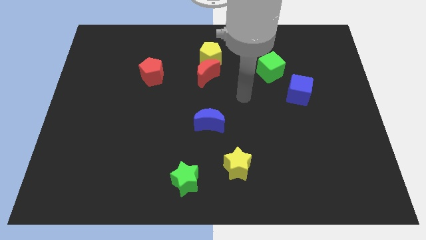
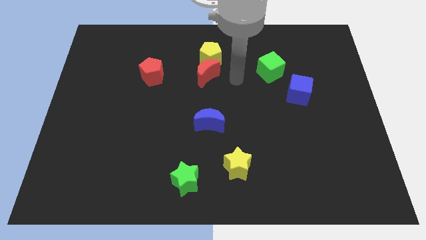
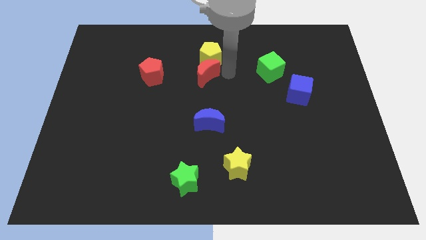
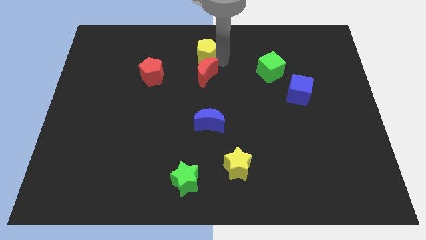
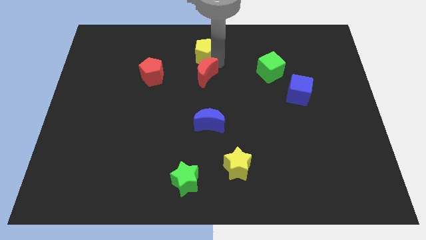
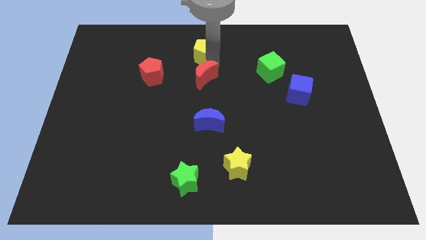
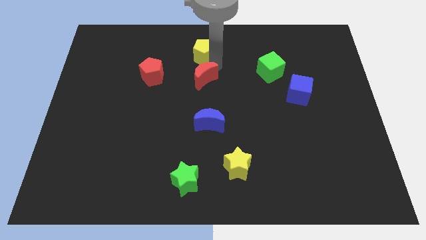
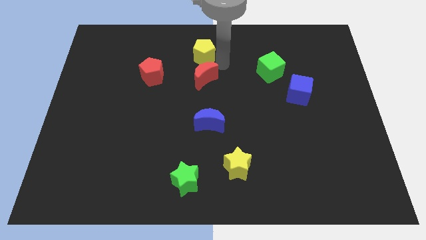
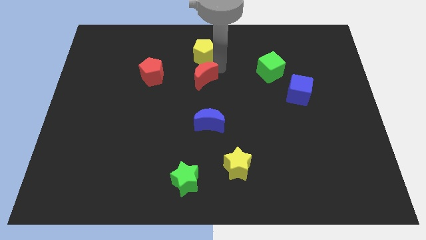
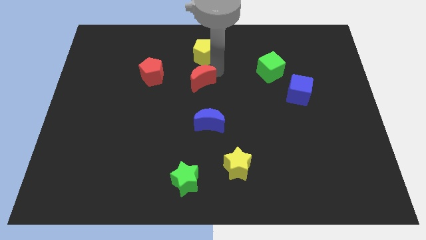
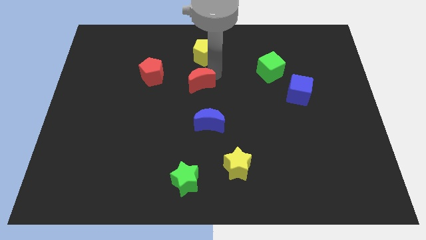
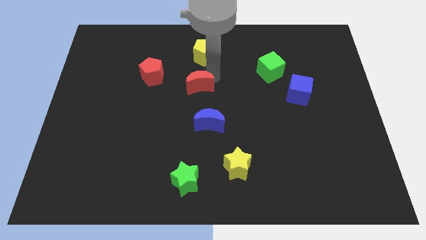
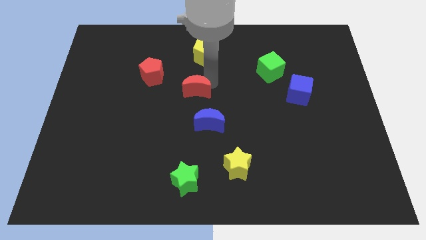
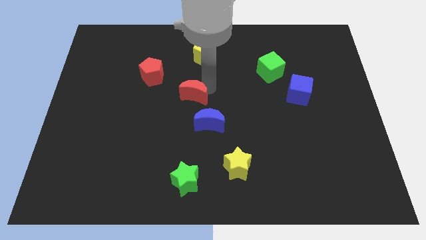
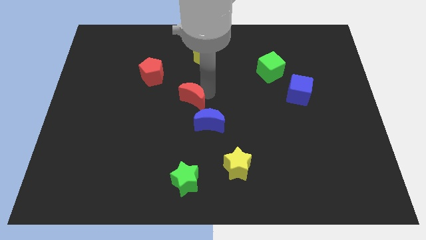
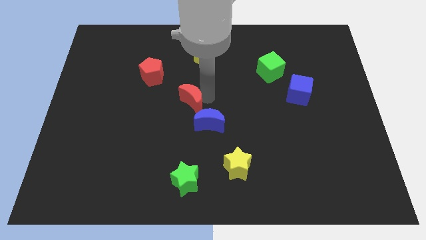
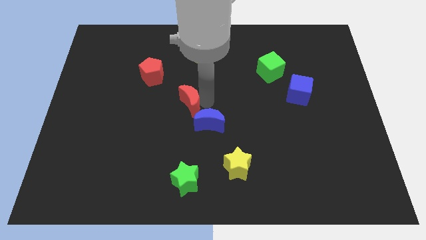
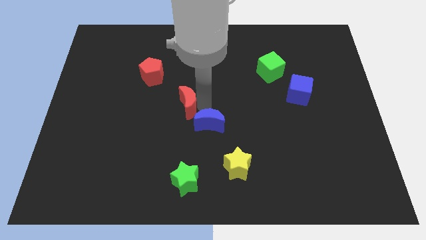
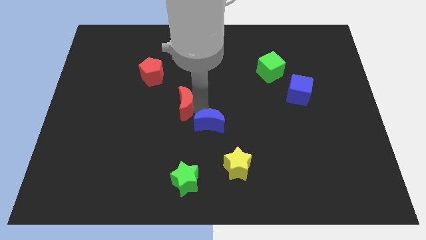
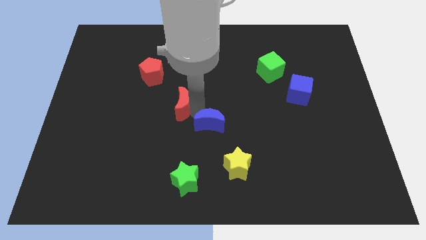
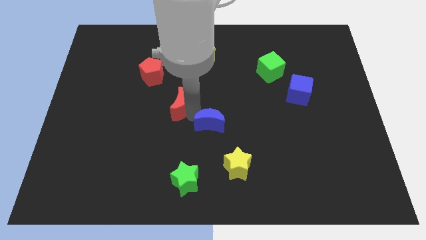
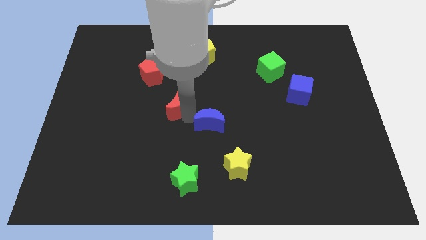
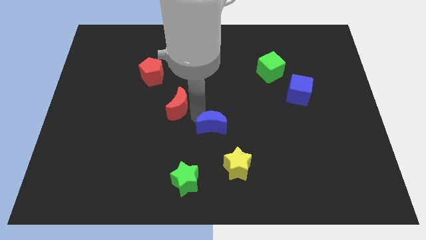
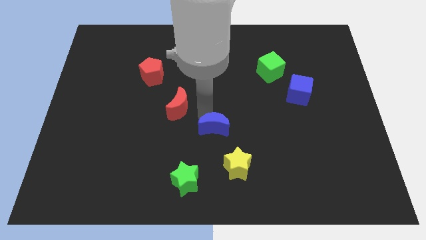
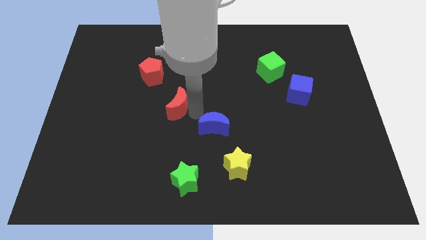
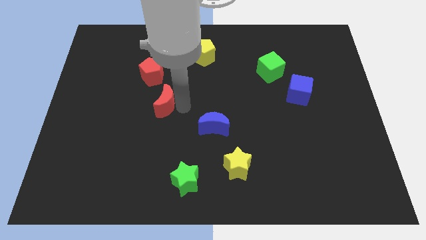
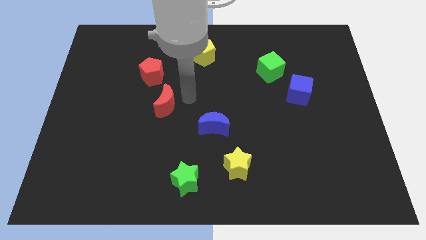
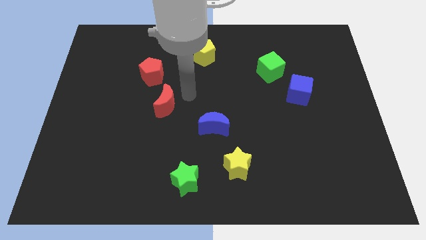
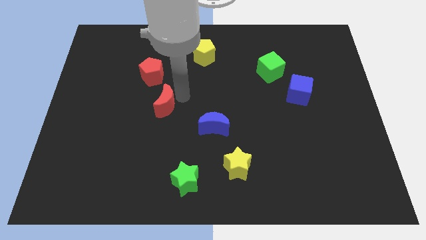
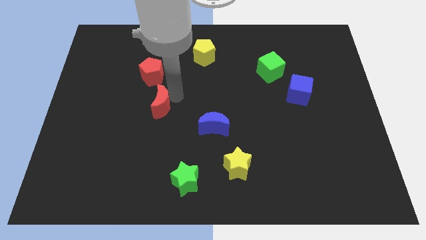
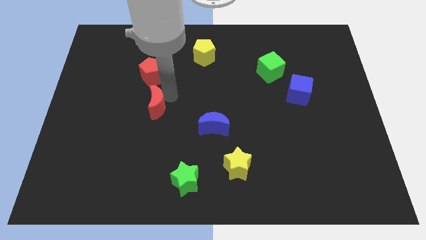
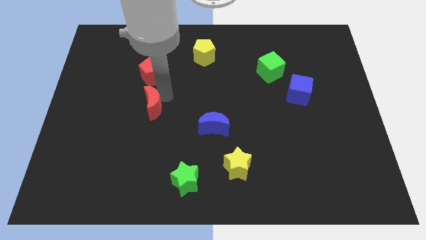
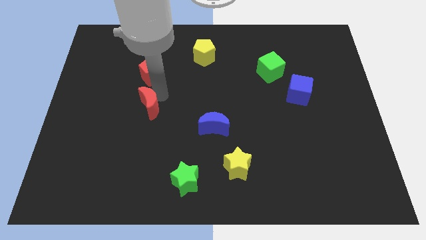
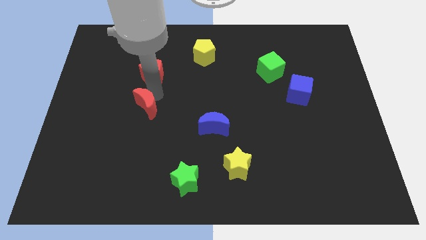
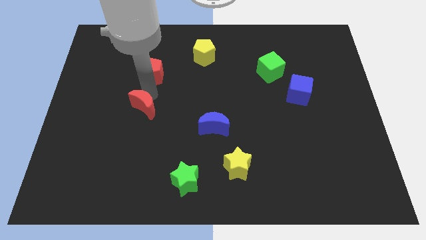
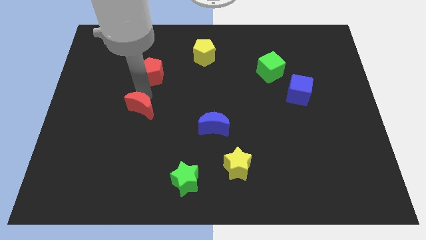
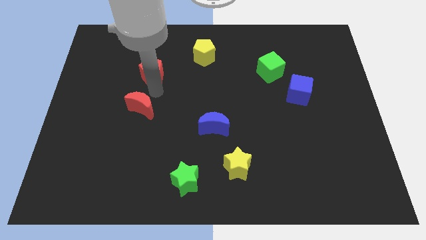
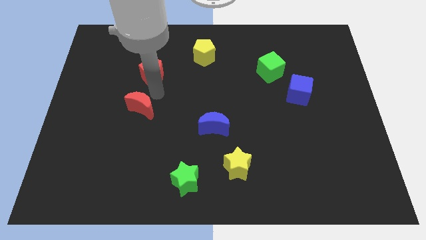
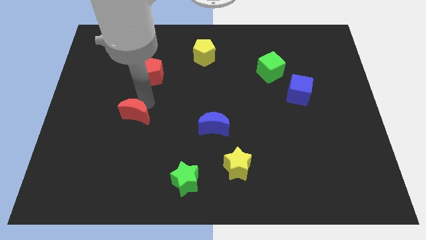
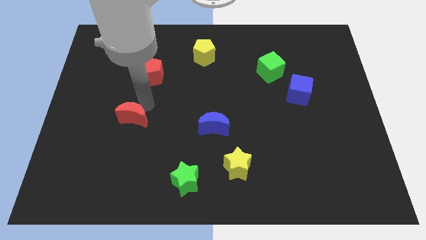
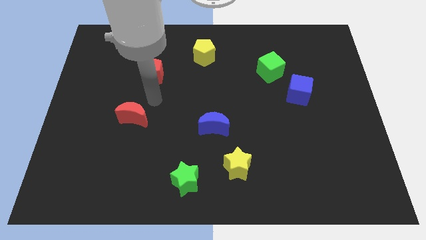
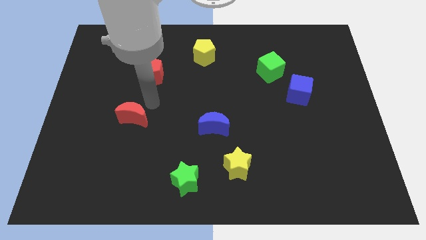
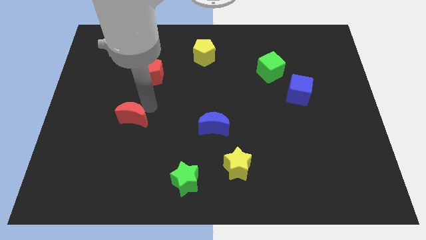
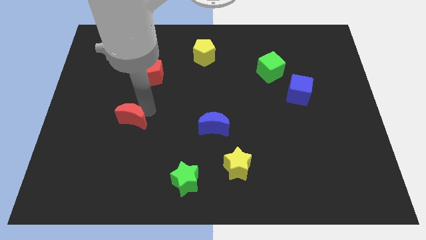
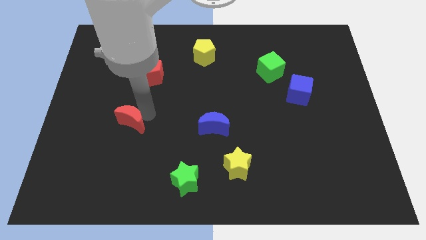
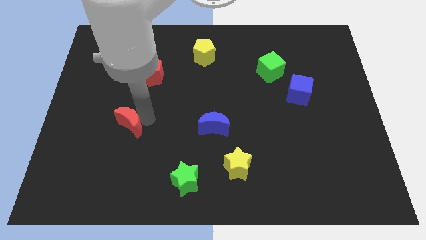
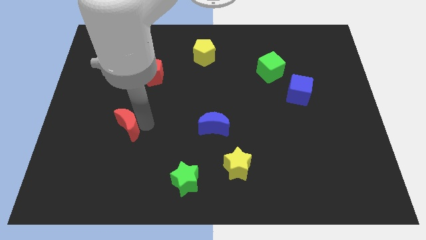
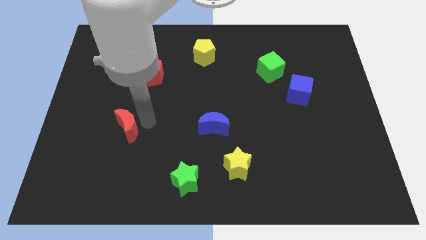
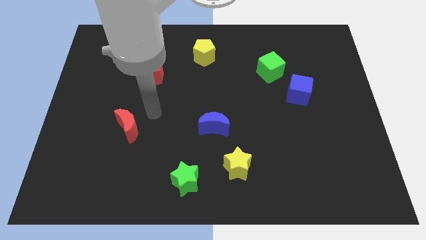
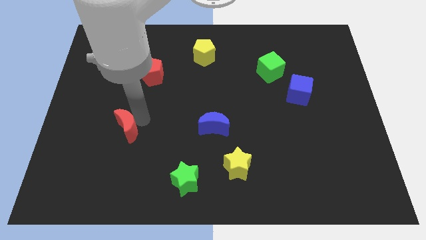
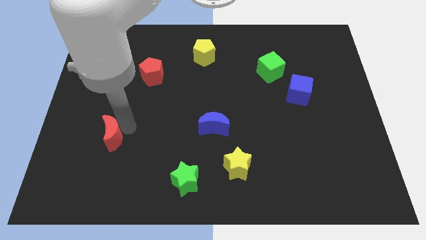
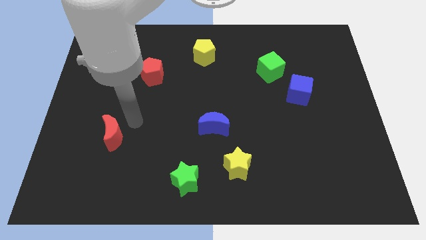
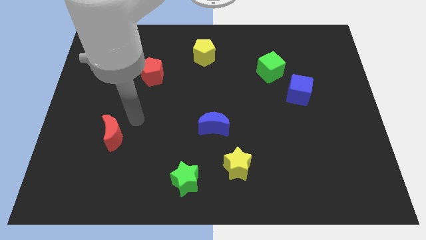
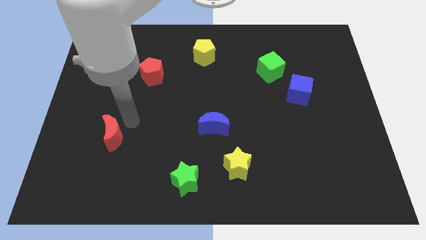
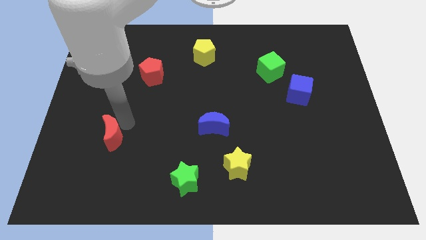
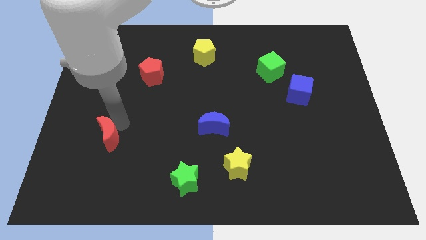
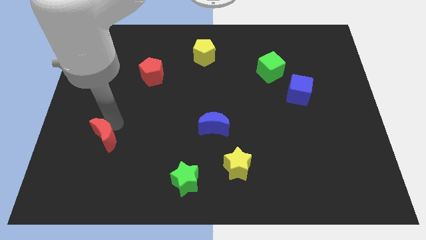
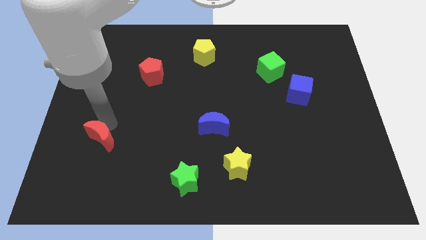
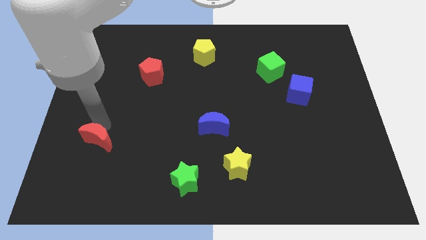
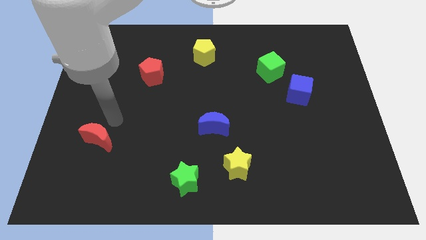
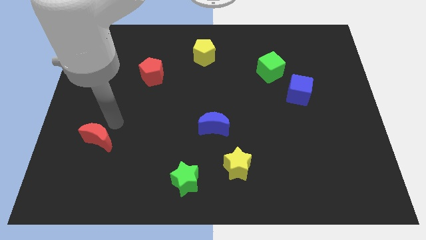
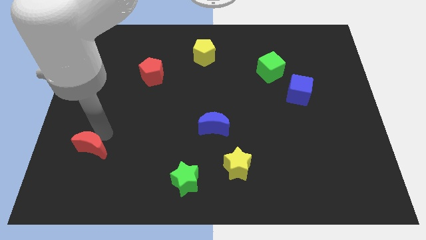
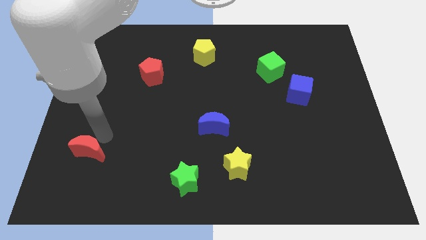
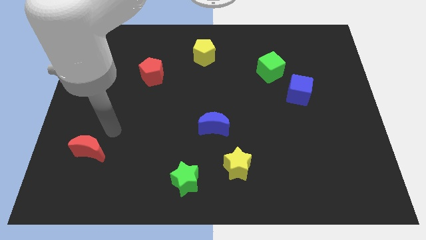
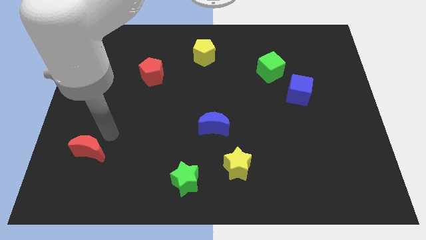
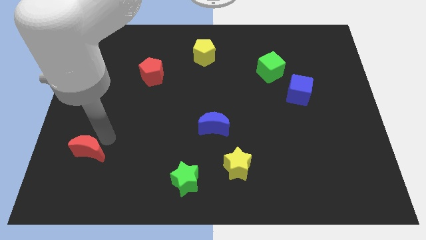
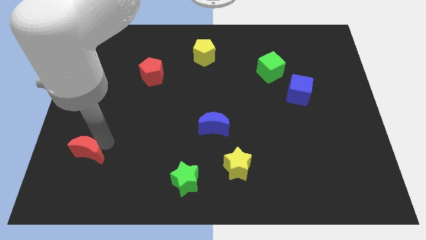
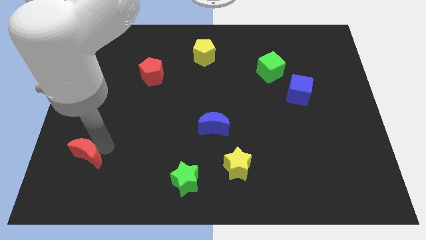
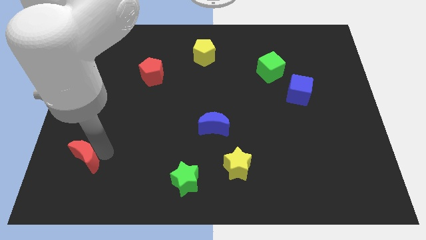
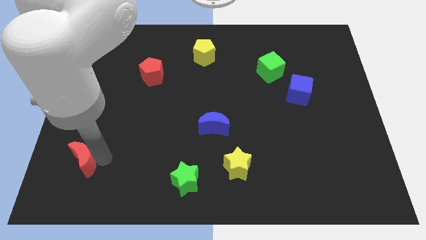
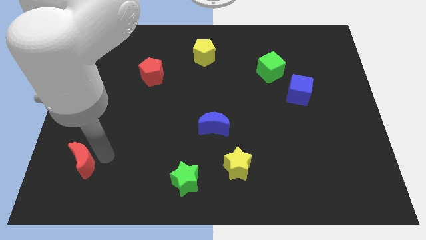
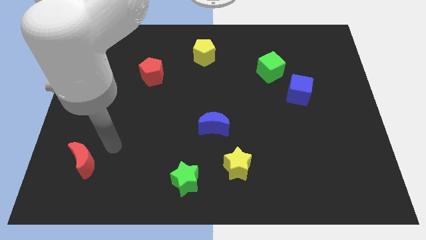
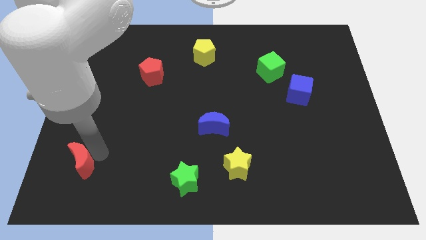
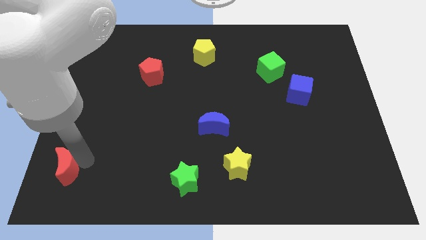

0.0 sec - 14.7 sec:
move the red moon to the bottom left of the board

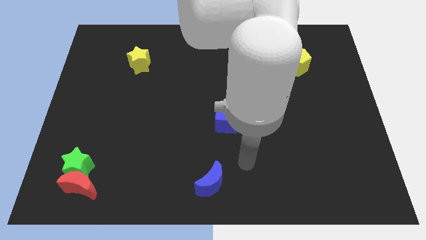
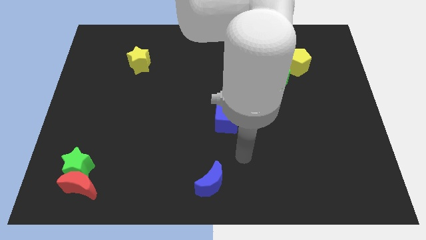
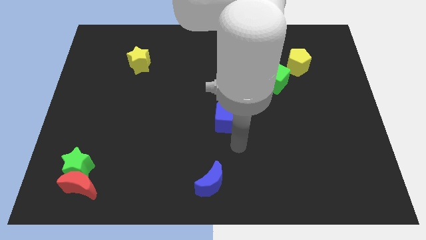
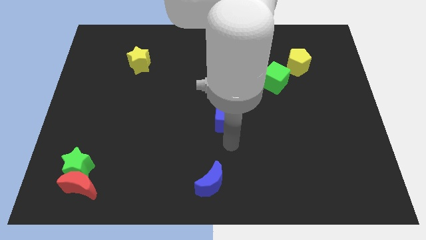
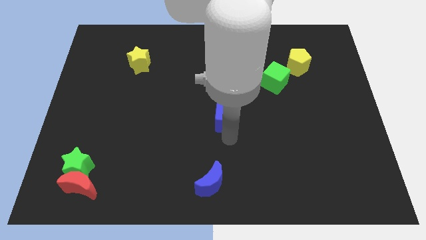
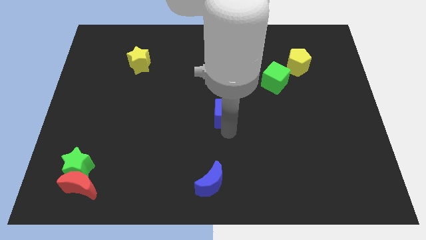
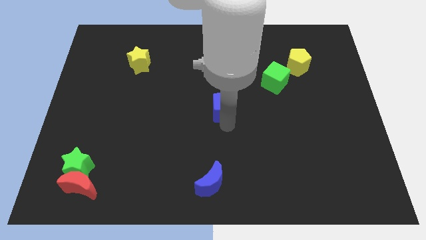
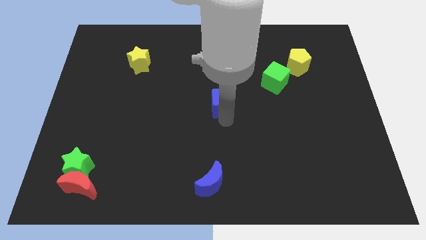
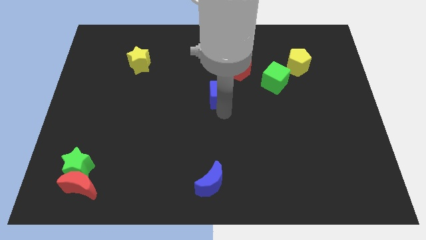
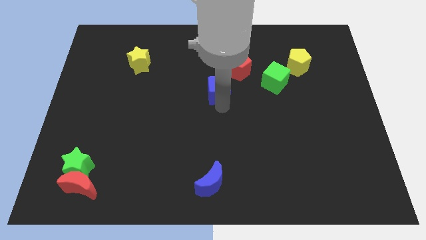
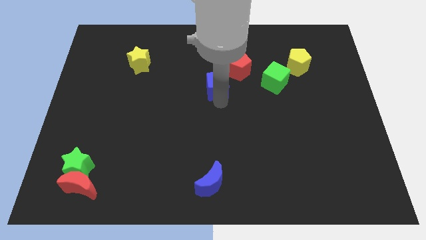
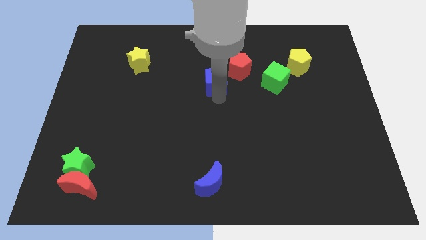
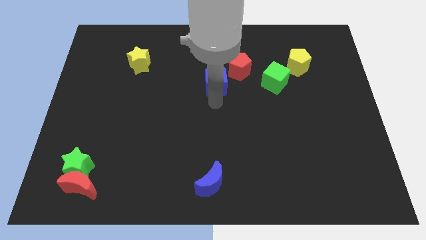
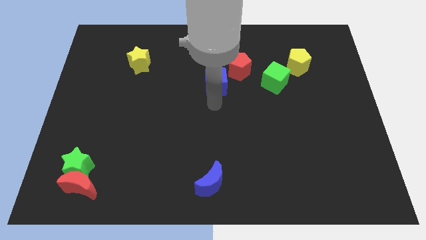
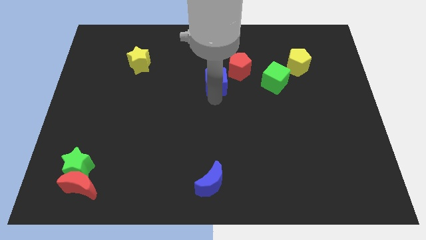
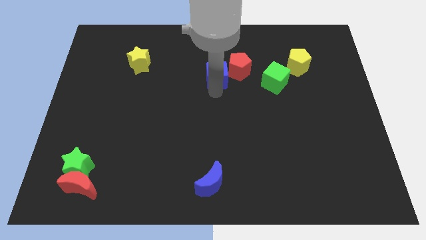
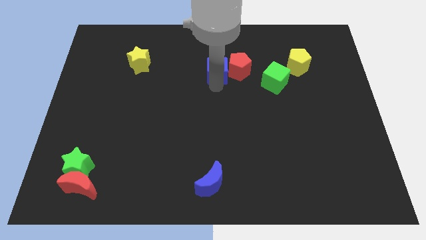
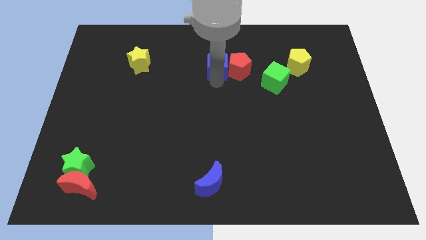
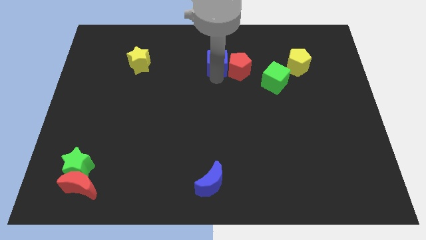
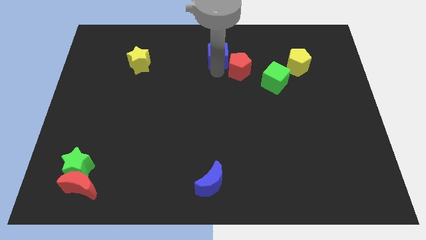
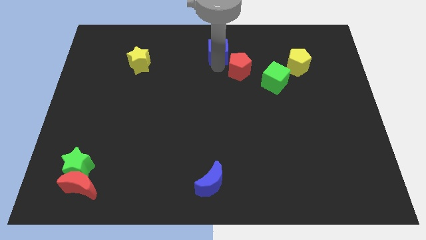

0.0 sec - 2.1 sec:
put the blue cube to the top
